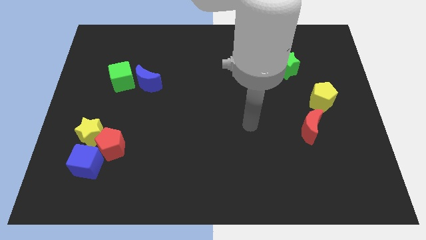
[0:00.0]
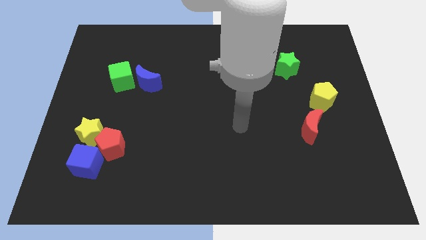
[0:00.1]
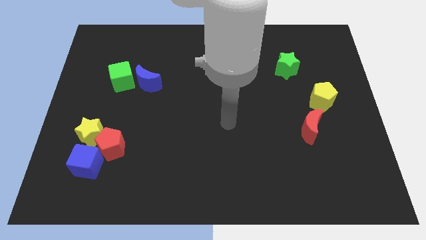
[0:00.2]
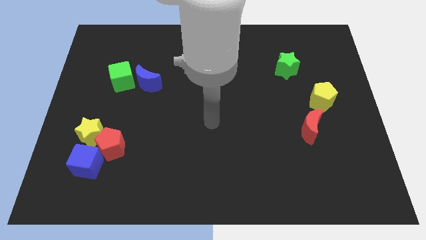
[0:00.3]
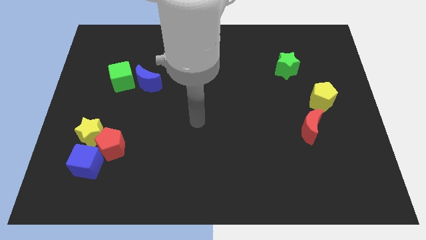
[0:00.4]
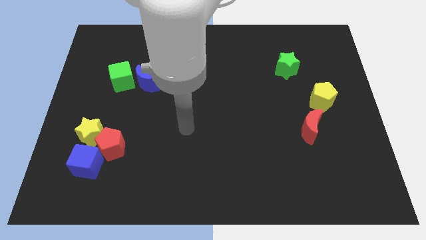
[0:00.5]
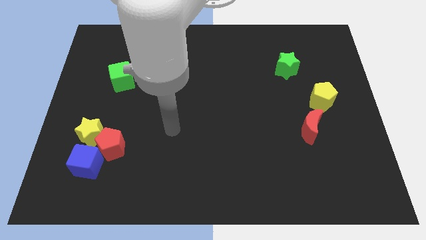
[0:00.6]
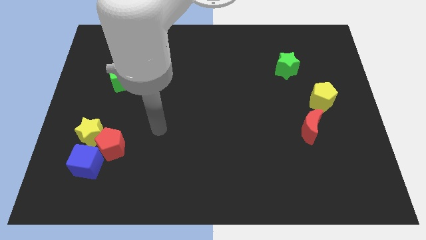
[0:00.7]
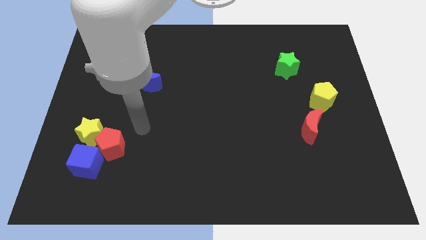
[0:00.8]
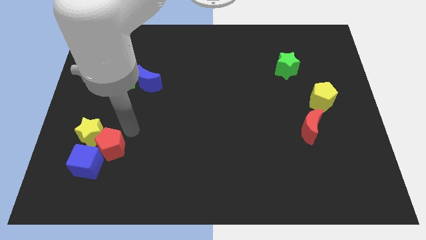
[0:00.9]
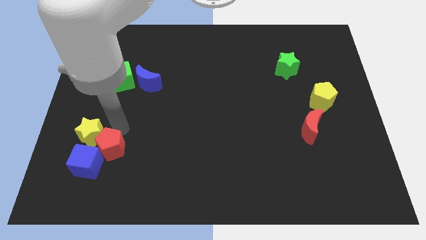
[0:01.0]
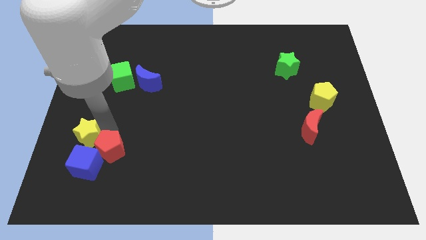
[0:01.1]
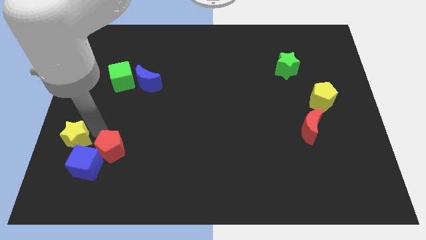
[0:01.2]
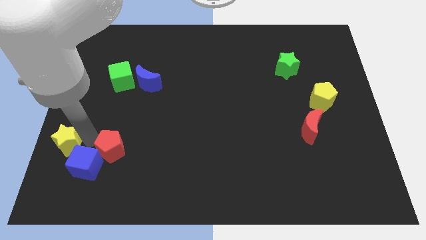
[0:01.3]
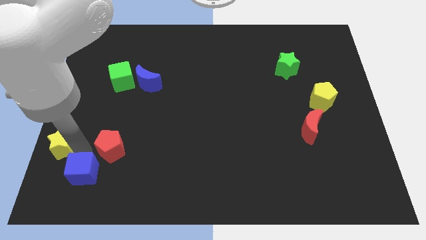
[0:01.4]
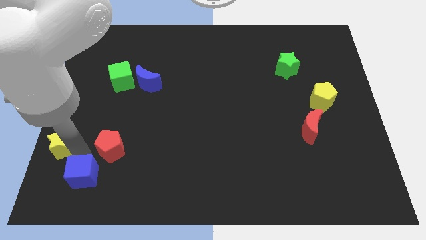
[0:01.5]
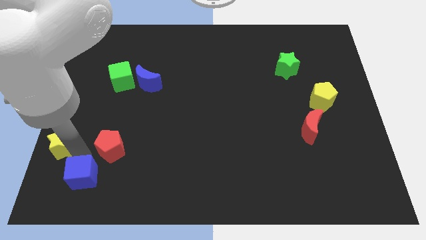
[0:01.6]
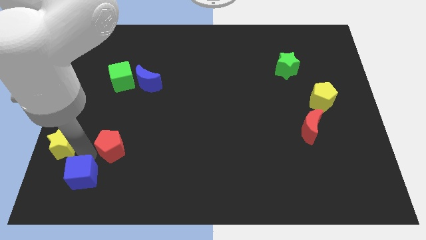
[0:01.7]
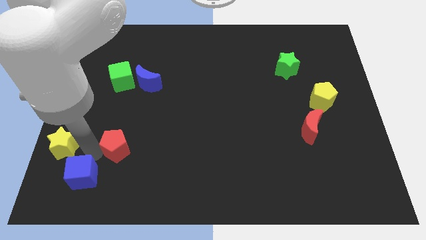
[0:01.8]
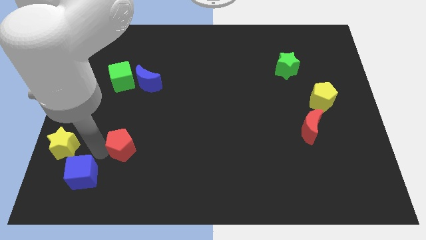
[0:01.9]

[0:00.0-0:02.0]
separate the red pentagon from the yellow star and blue cube

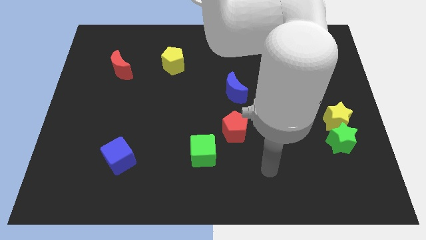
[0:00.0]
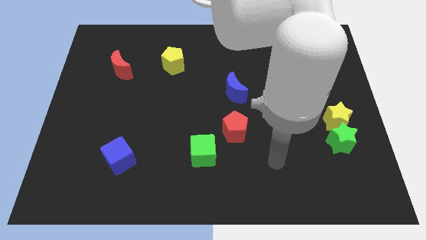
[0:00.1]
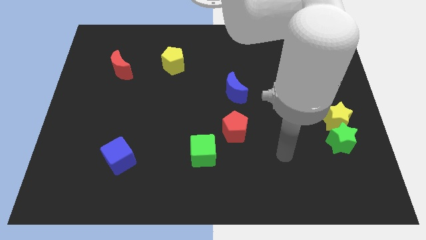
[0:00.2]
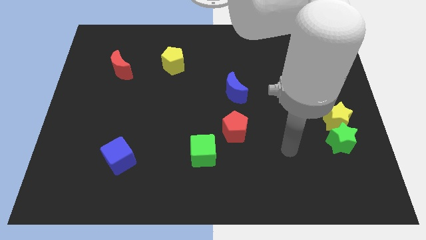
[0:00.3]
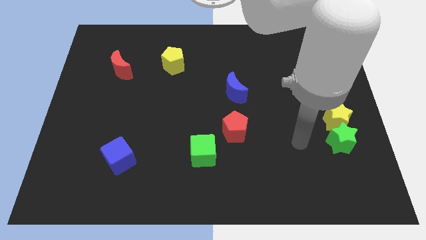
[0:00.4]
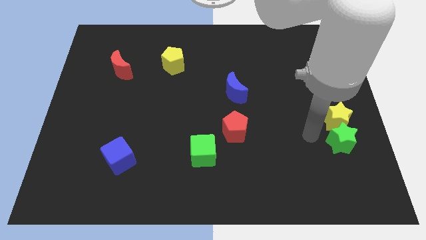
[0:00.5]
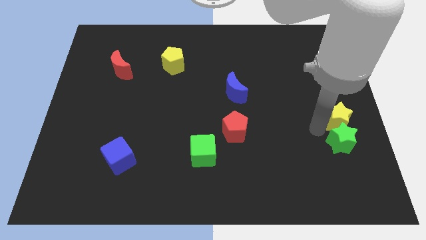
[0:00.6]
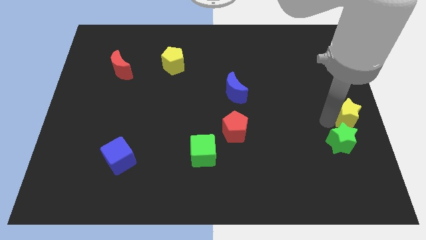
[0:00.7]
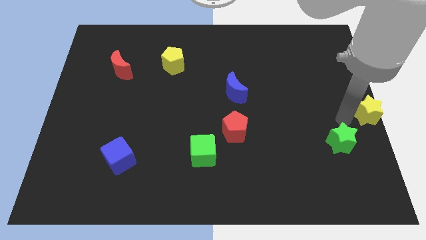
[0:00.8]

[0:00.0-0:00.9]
separate the green star from the yellow star

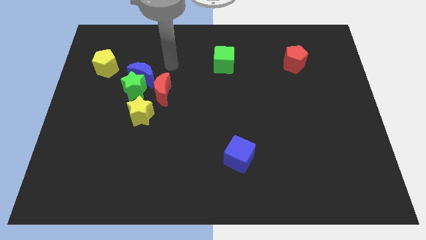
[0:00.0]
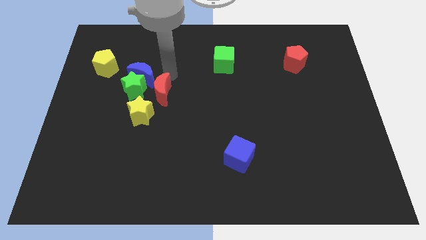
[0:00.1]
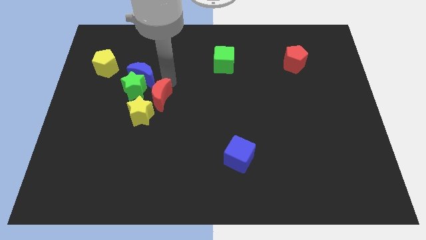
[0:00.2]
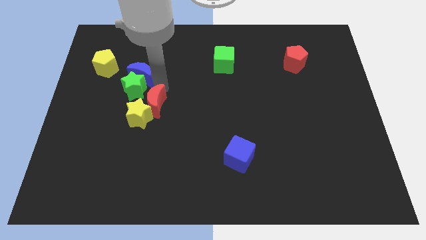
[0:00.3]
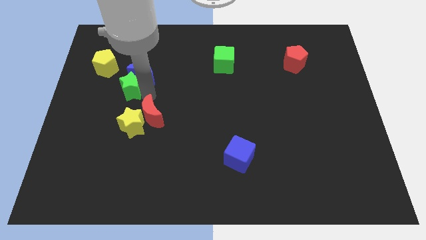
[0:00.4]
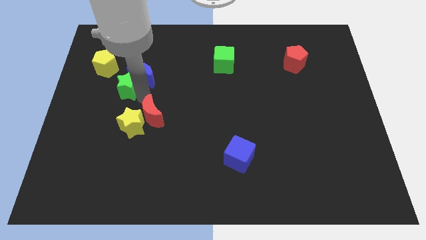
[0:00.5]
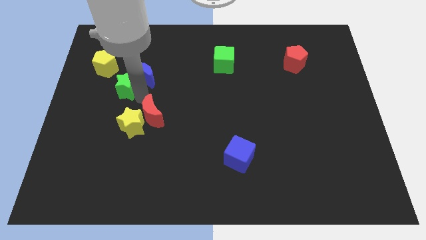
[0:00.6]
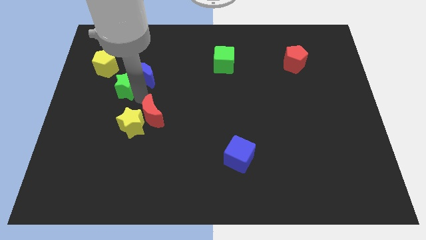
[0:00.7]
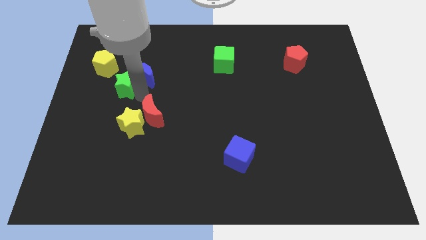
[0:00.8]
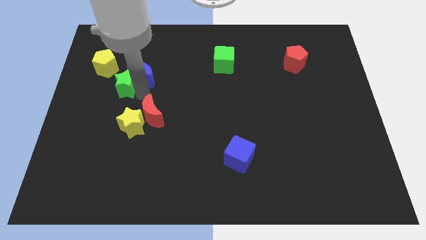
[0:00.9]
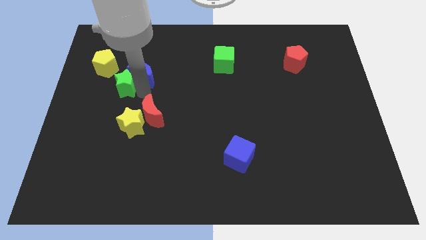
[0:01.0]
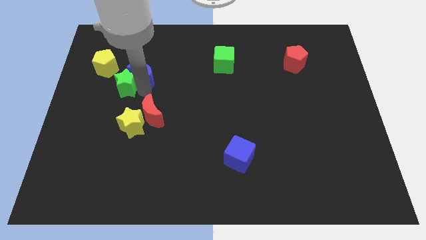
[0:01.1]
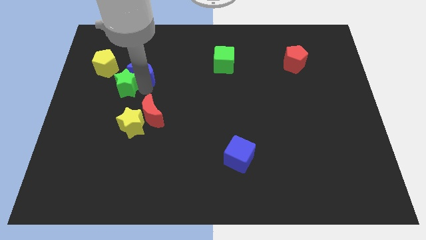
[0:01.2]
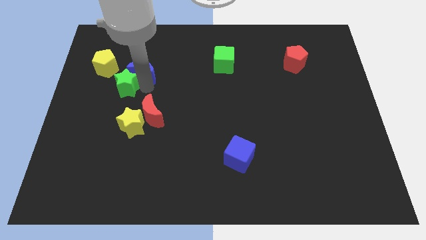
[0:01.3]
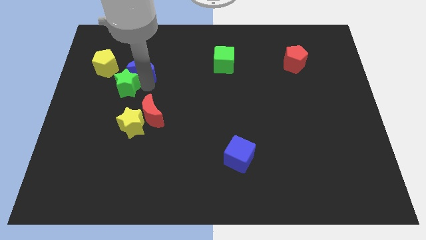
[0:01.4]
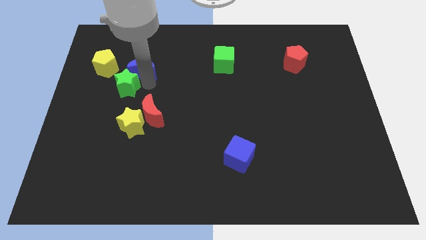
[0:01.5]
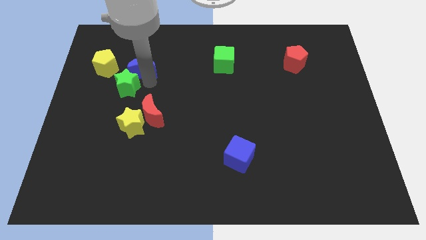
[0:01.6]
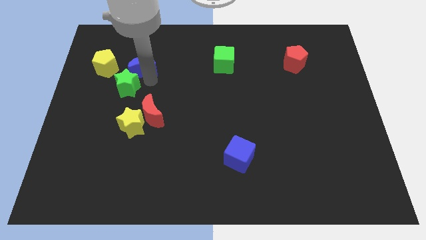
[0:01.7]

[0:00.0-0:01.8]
move the blue moon away from the green star and red moon

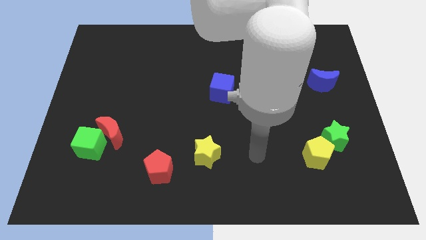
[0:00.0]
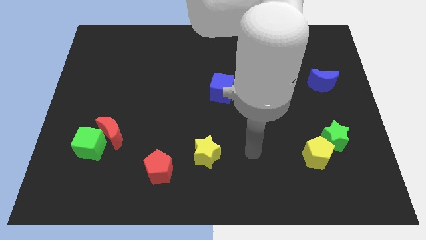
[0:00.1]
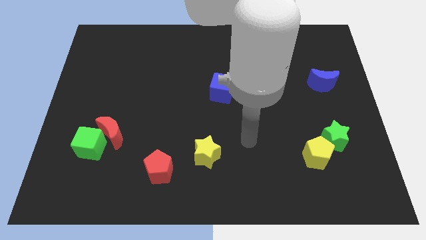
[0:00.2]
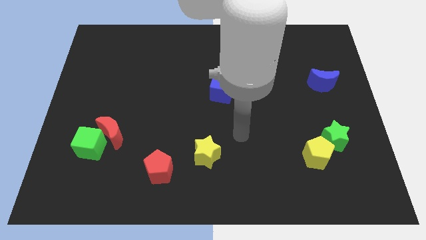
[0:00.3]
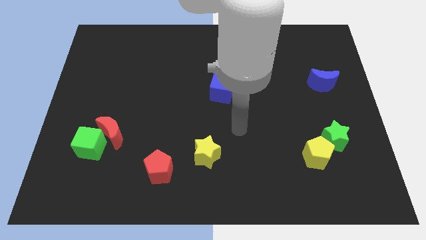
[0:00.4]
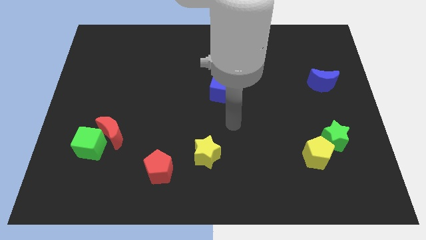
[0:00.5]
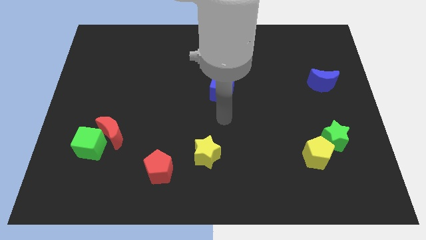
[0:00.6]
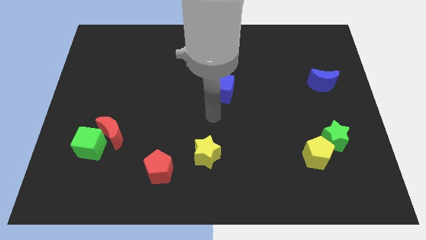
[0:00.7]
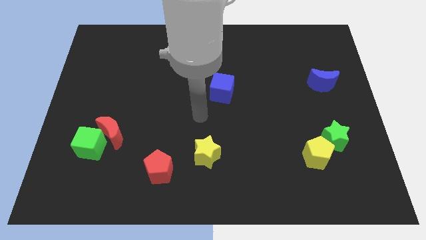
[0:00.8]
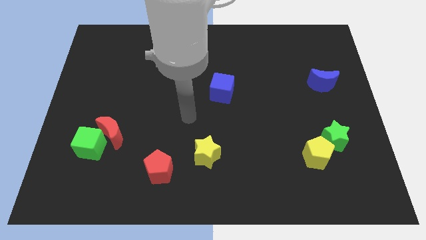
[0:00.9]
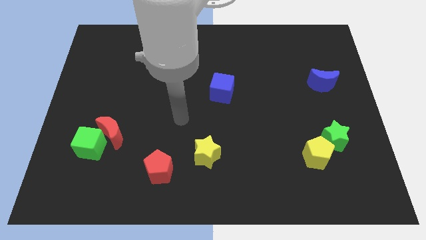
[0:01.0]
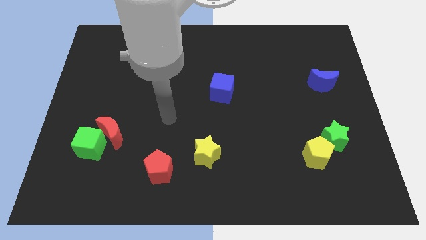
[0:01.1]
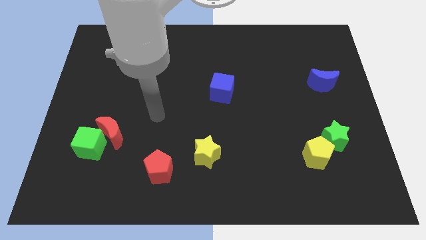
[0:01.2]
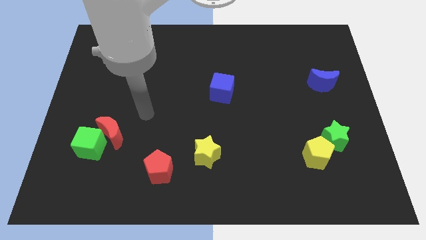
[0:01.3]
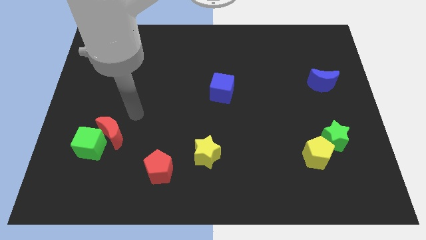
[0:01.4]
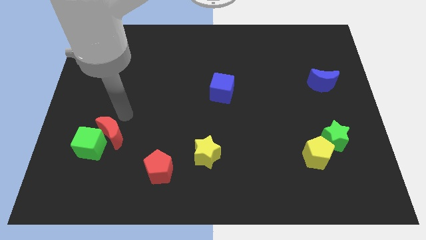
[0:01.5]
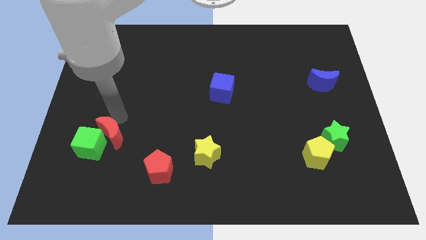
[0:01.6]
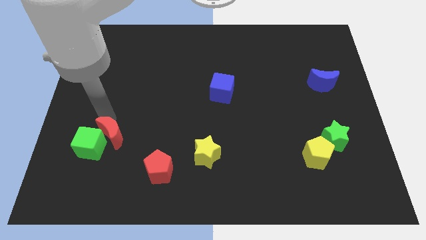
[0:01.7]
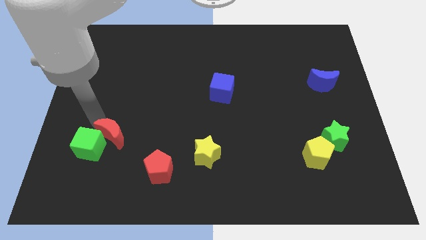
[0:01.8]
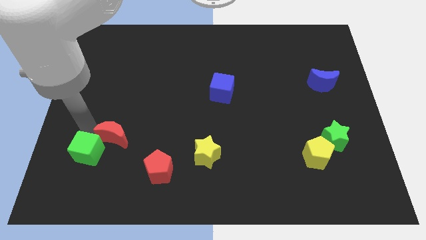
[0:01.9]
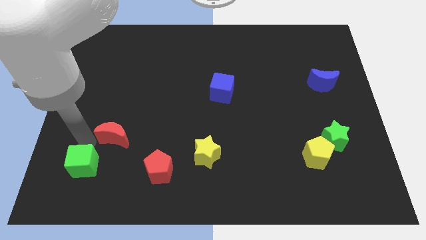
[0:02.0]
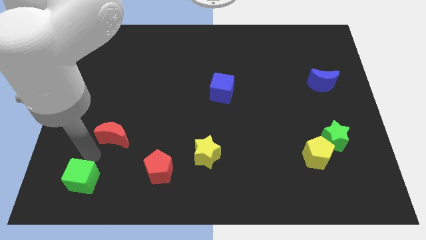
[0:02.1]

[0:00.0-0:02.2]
separate the red moon from the green cube

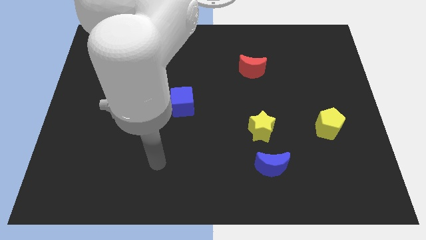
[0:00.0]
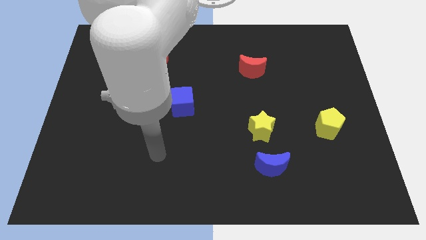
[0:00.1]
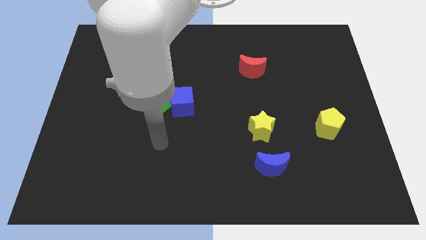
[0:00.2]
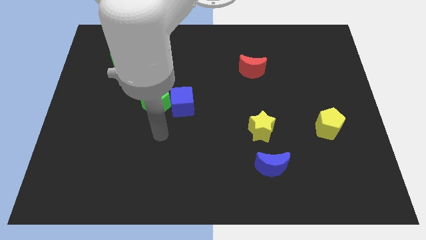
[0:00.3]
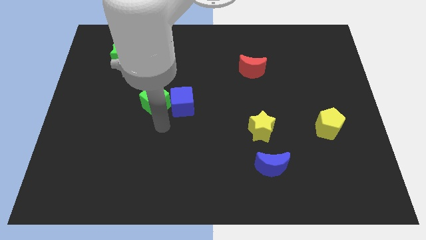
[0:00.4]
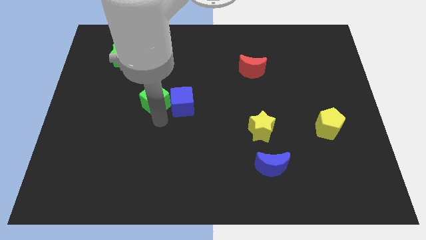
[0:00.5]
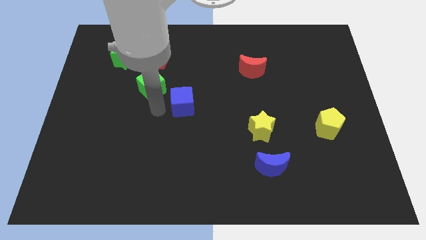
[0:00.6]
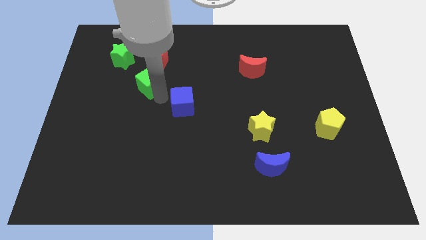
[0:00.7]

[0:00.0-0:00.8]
pull the blue cube apart from the green cube

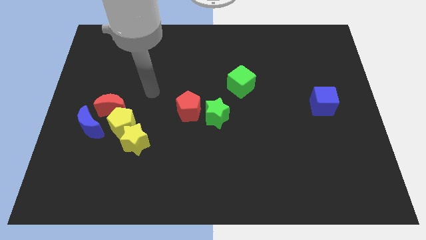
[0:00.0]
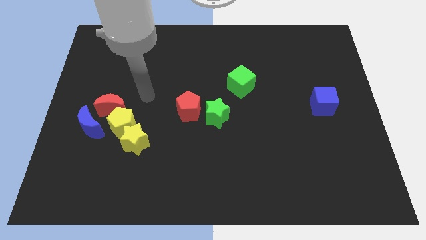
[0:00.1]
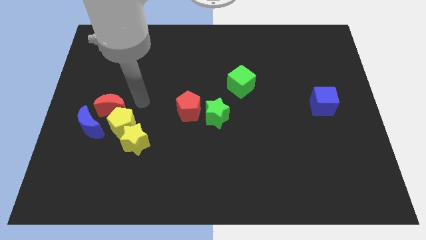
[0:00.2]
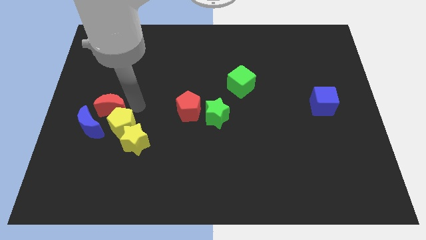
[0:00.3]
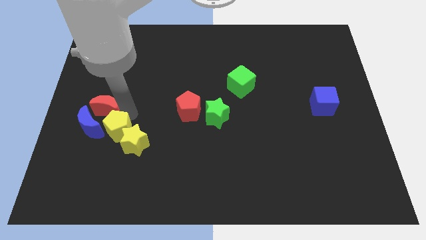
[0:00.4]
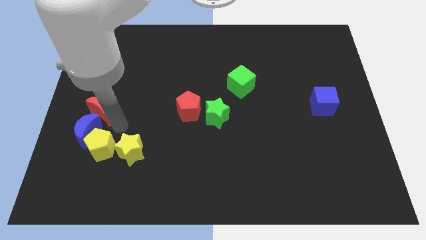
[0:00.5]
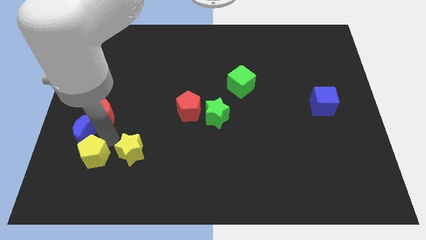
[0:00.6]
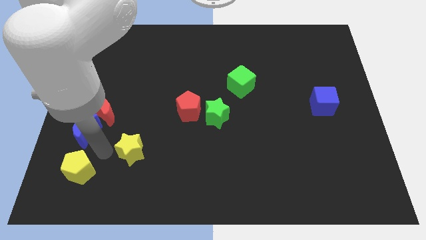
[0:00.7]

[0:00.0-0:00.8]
pull the yellow star apart from the yellow pentagon

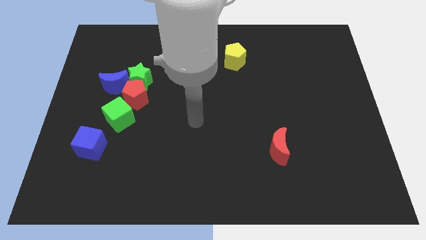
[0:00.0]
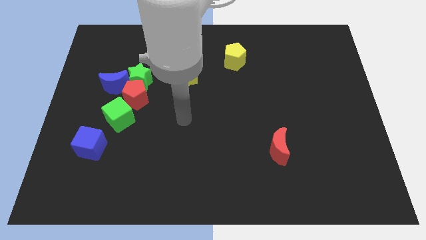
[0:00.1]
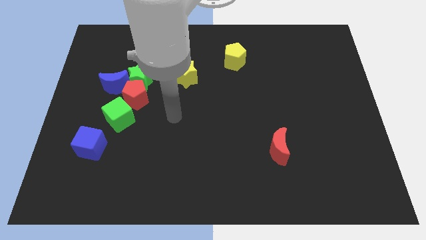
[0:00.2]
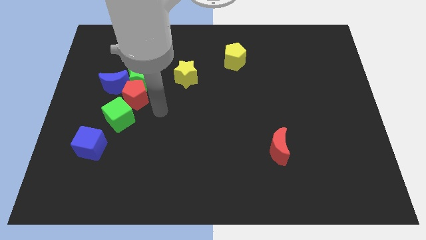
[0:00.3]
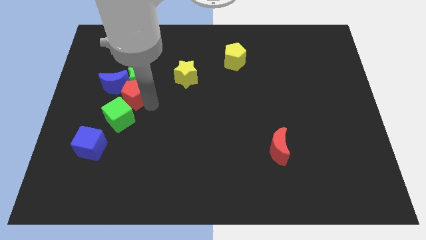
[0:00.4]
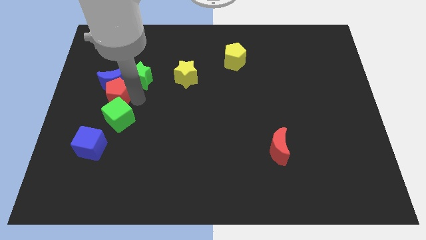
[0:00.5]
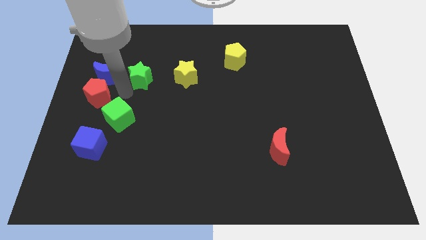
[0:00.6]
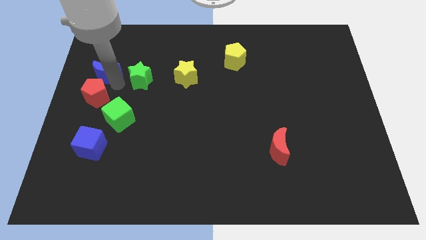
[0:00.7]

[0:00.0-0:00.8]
separate the green star from the red pentagon and blue moon
